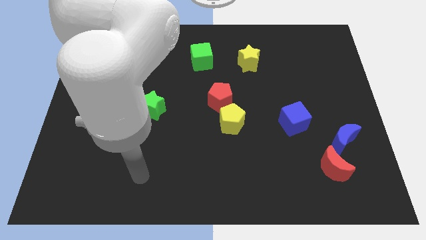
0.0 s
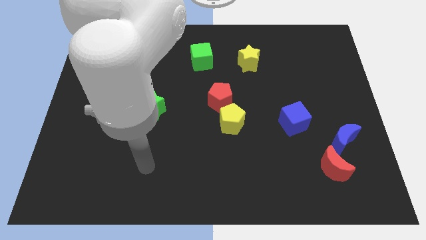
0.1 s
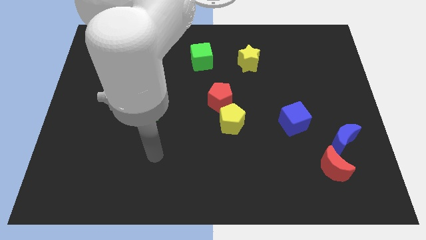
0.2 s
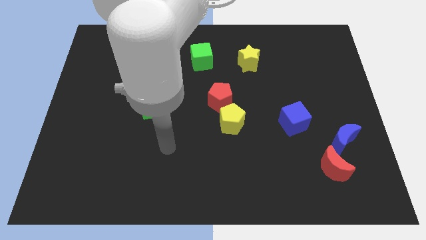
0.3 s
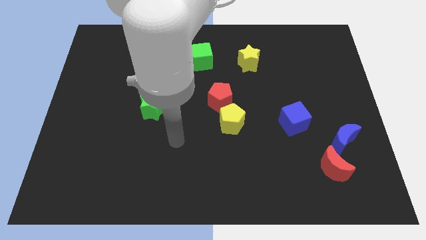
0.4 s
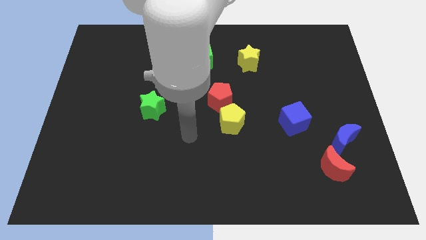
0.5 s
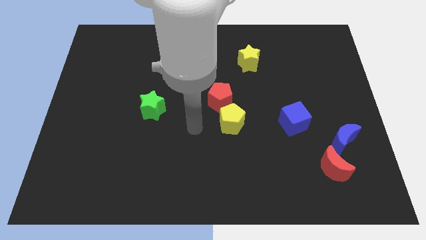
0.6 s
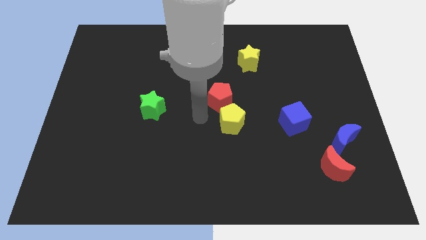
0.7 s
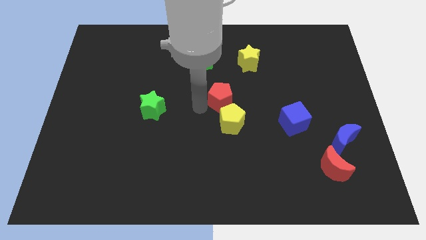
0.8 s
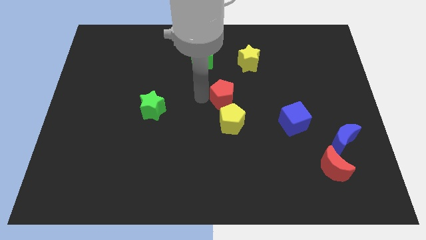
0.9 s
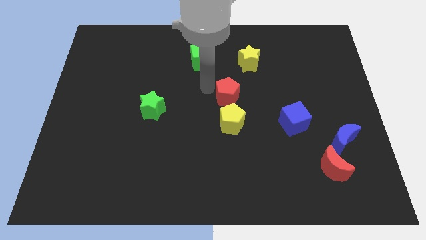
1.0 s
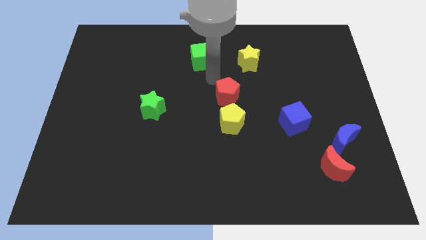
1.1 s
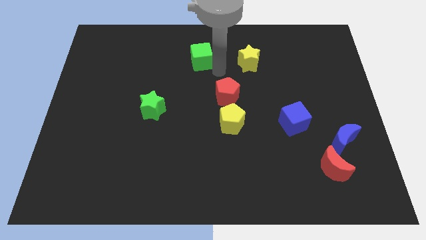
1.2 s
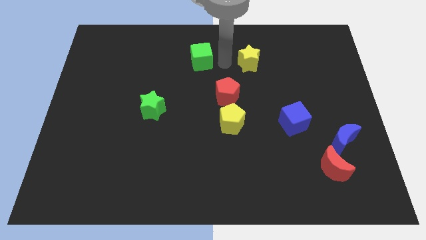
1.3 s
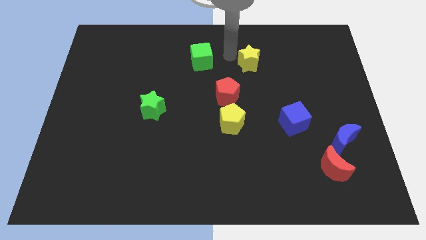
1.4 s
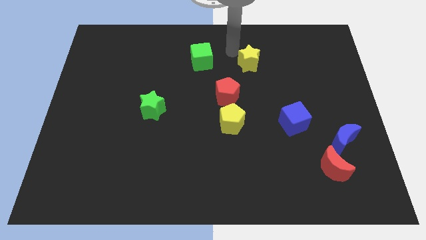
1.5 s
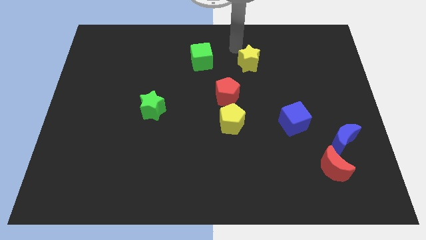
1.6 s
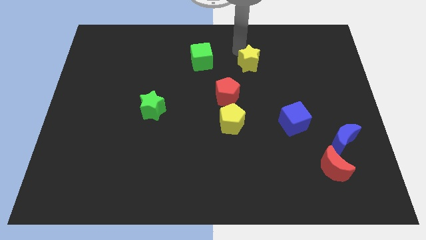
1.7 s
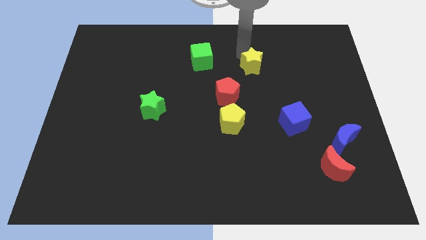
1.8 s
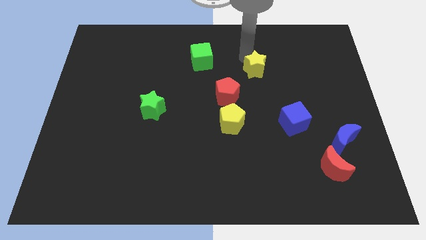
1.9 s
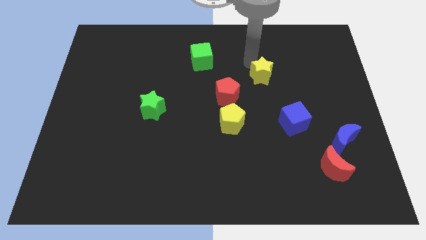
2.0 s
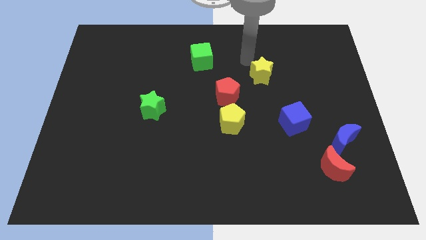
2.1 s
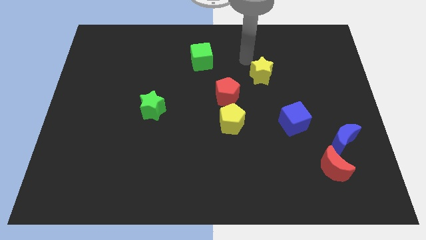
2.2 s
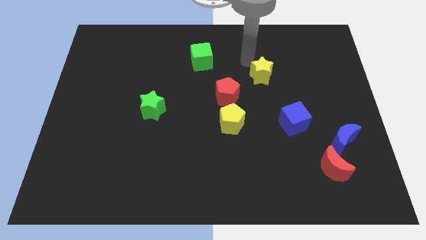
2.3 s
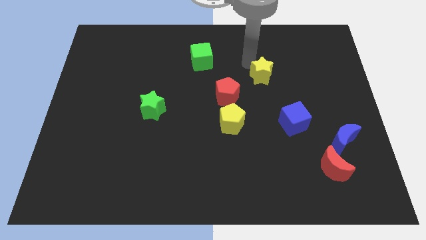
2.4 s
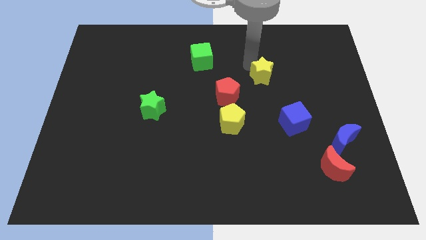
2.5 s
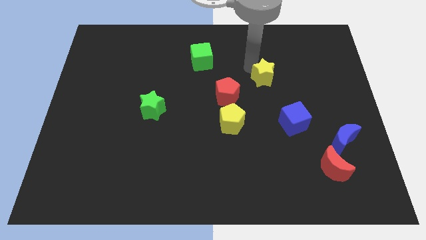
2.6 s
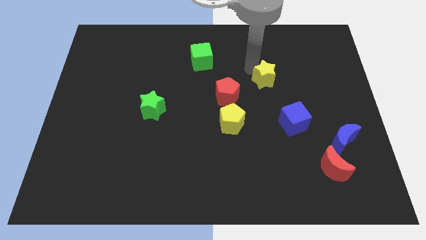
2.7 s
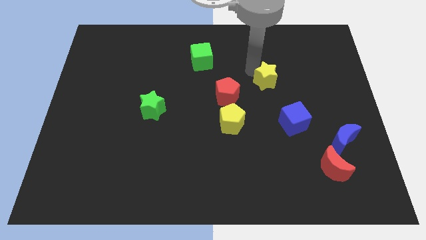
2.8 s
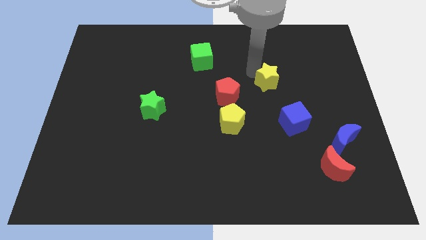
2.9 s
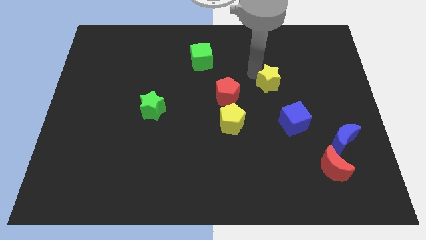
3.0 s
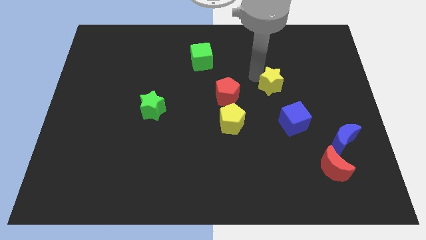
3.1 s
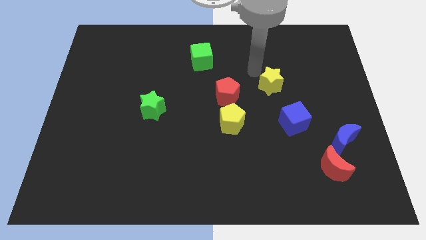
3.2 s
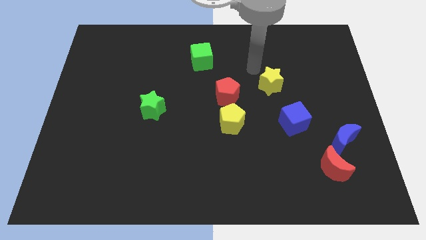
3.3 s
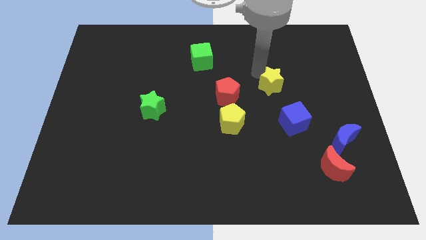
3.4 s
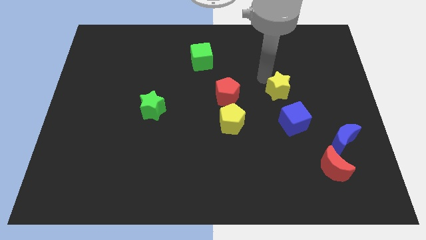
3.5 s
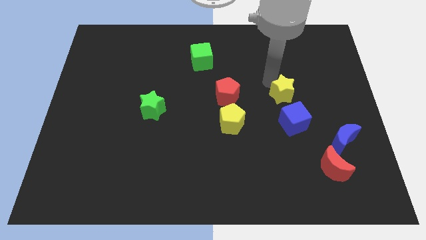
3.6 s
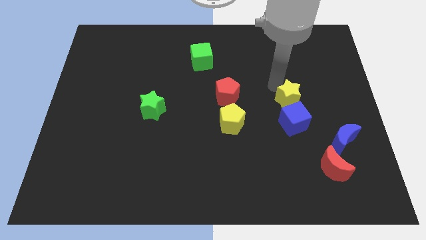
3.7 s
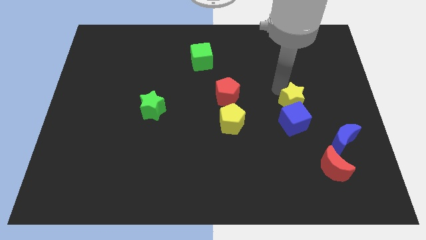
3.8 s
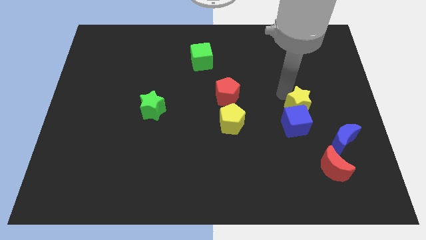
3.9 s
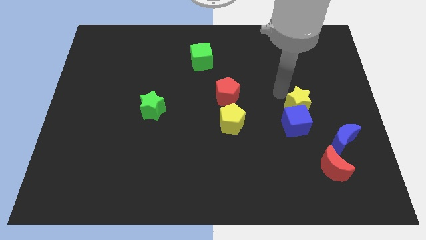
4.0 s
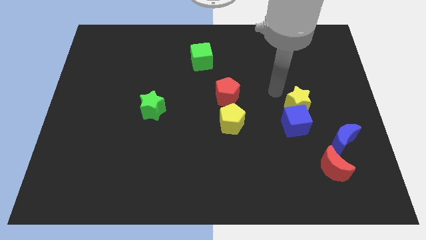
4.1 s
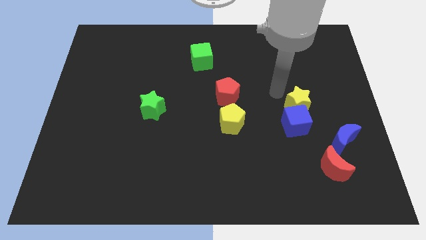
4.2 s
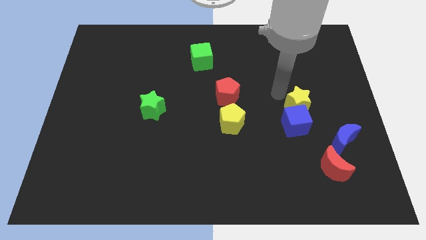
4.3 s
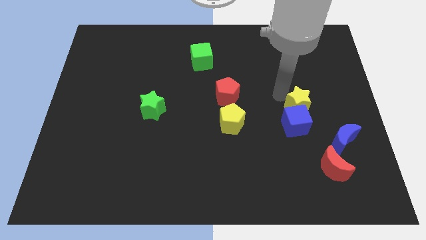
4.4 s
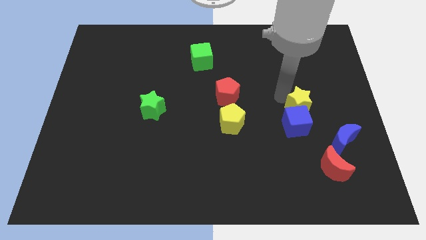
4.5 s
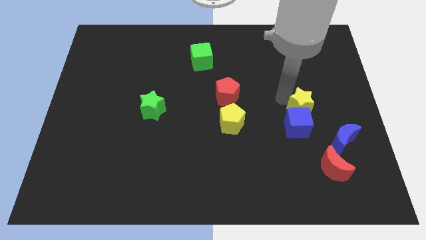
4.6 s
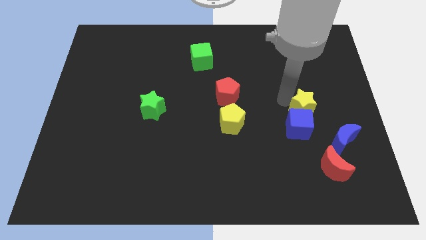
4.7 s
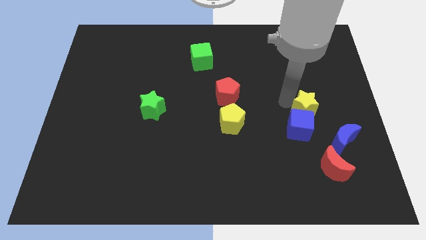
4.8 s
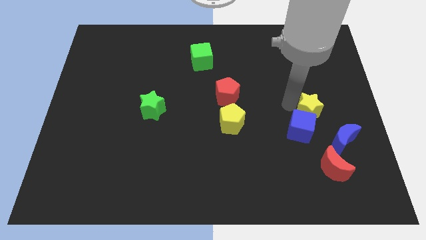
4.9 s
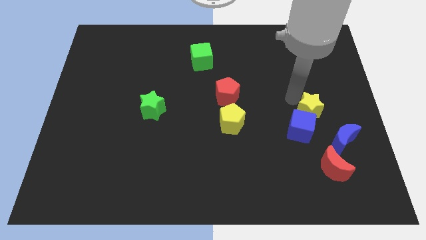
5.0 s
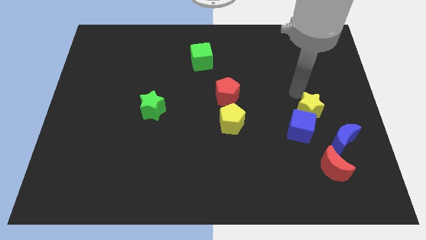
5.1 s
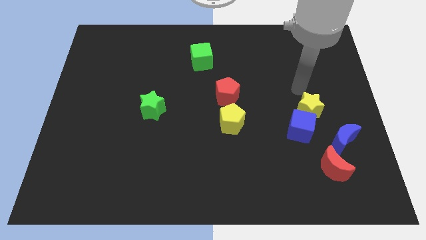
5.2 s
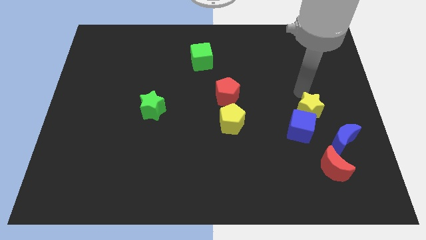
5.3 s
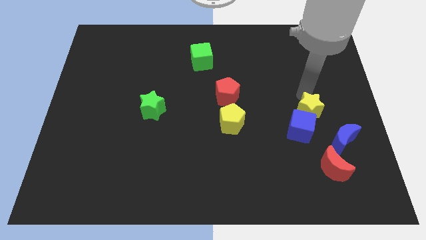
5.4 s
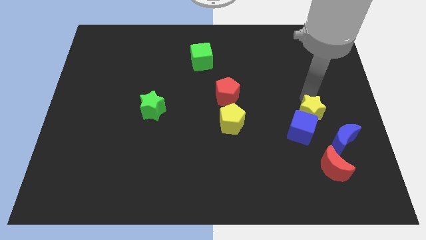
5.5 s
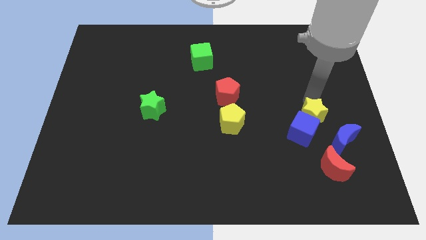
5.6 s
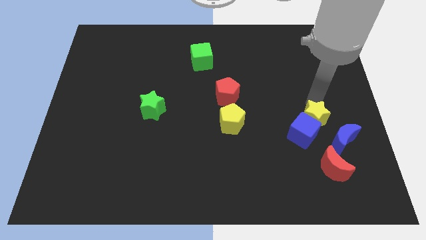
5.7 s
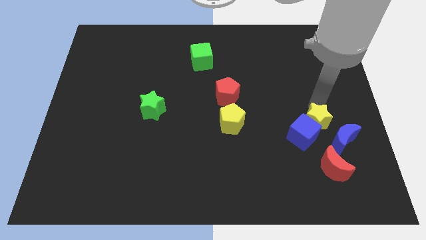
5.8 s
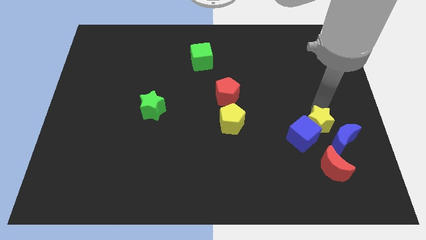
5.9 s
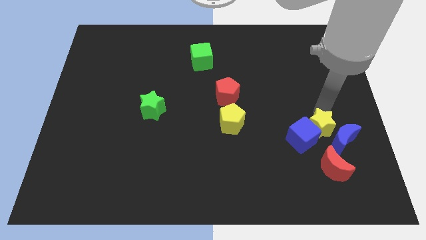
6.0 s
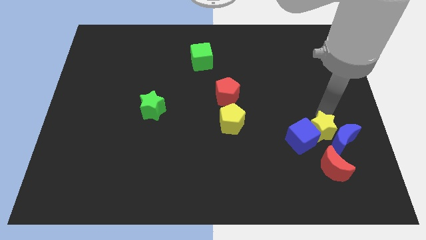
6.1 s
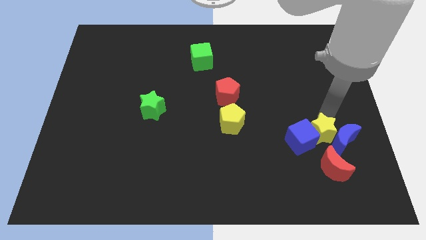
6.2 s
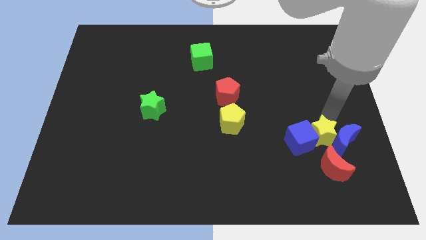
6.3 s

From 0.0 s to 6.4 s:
slide the yellow star diagonally down and to the right of the blue cube

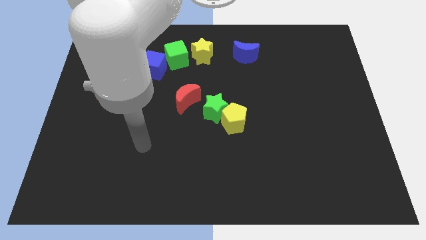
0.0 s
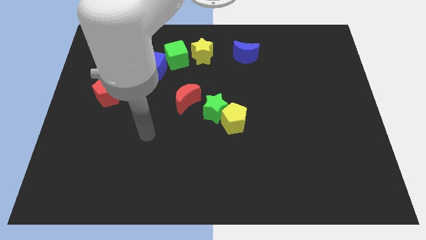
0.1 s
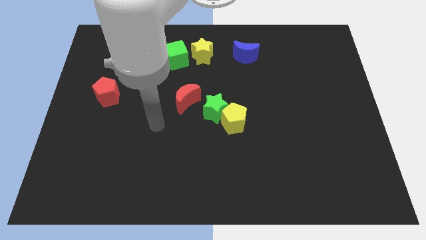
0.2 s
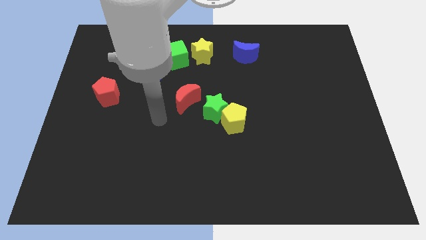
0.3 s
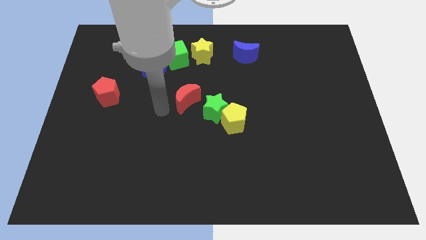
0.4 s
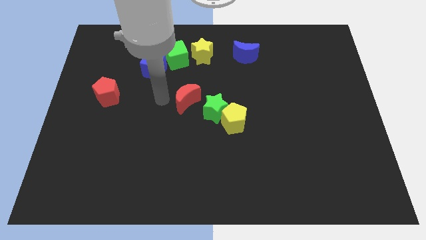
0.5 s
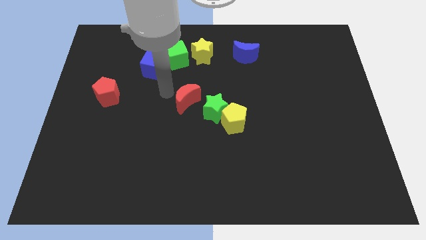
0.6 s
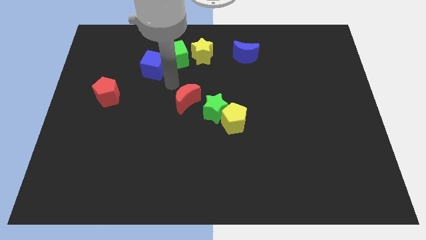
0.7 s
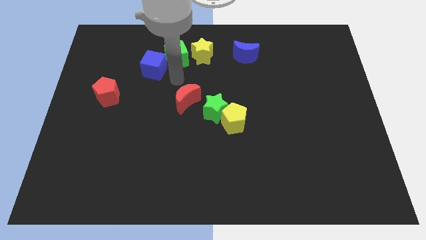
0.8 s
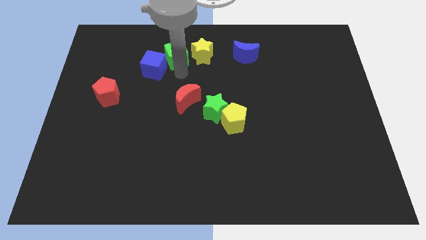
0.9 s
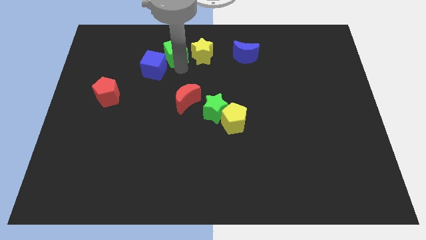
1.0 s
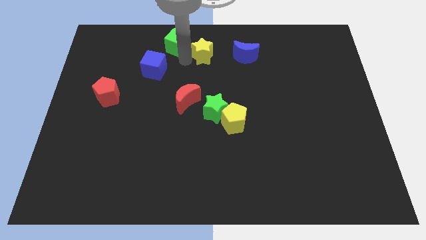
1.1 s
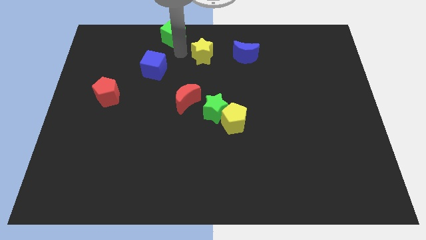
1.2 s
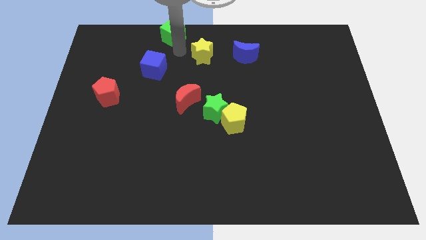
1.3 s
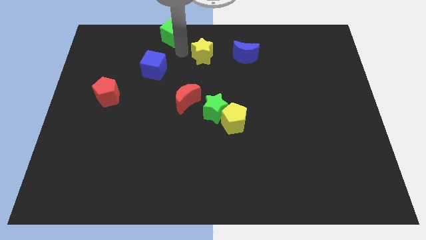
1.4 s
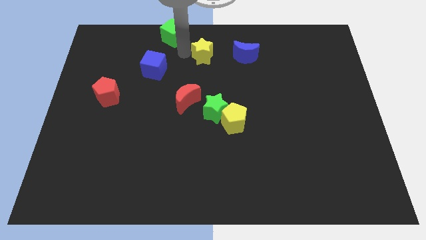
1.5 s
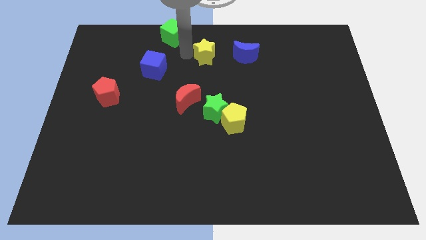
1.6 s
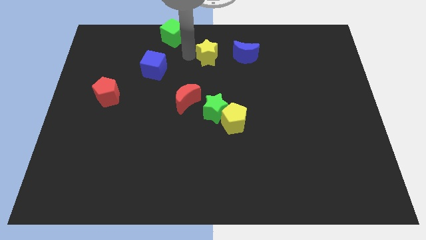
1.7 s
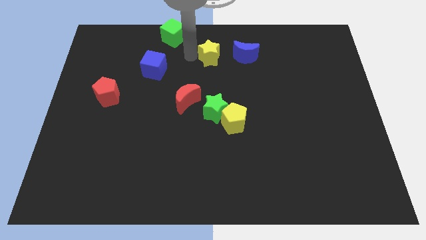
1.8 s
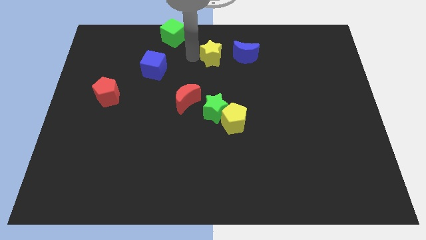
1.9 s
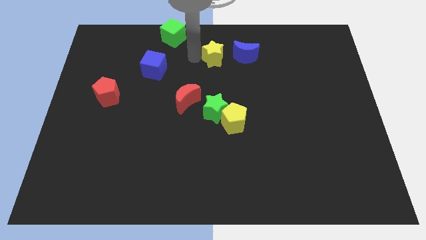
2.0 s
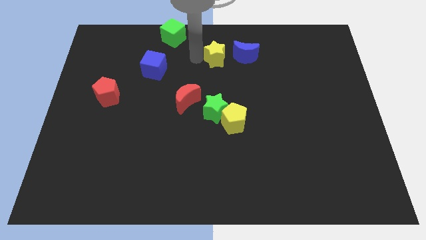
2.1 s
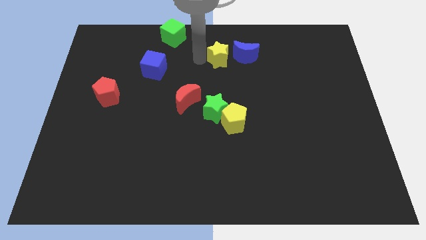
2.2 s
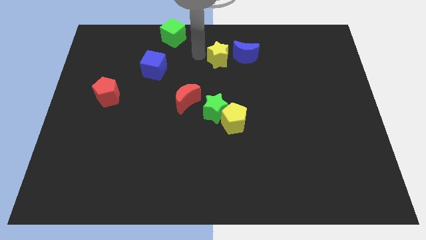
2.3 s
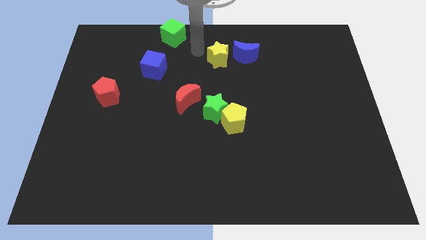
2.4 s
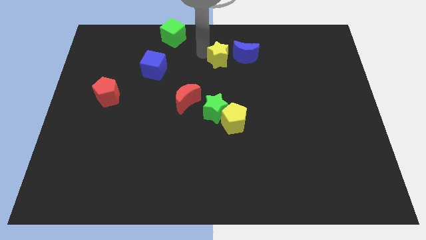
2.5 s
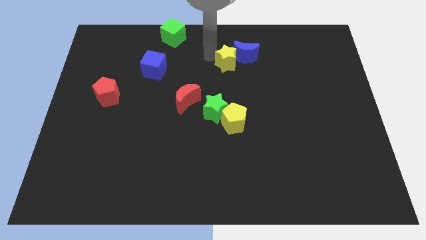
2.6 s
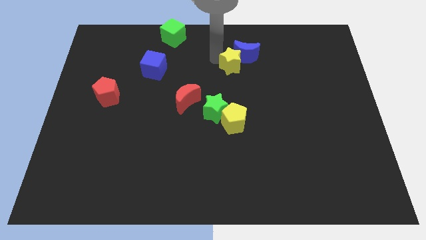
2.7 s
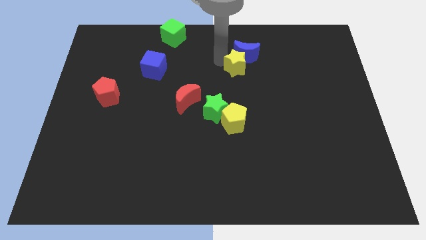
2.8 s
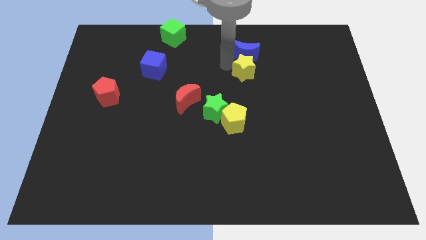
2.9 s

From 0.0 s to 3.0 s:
put the yellow star to the bottom right side of the blue moon
